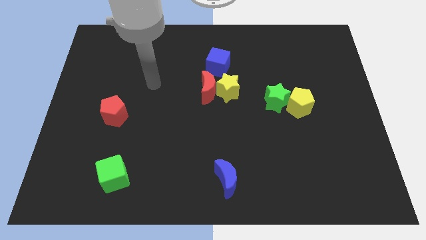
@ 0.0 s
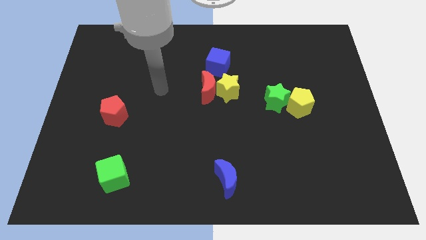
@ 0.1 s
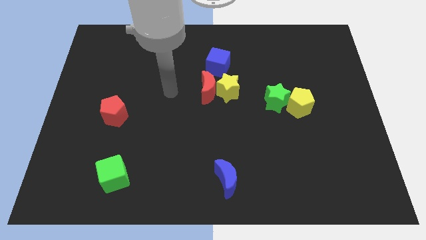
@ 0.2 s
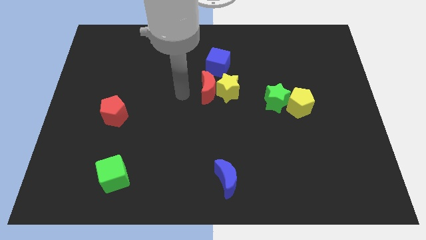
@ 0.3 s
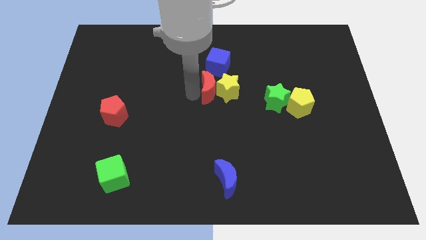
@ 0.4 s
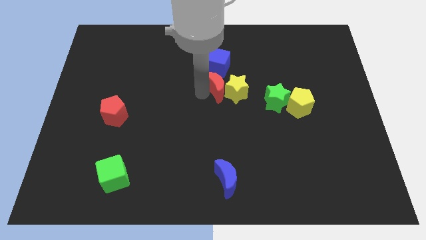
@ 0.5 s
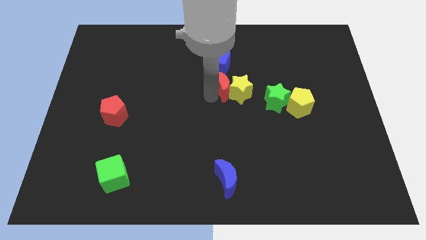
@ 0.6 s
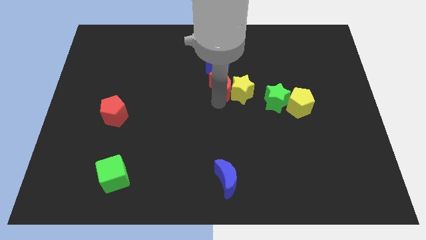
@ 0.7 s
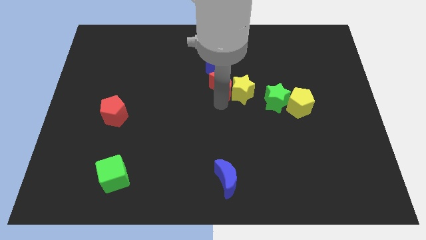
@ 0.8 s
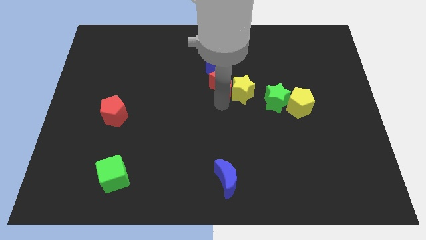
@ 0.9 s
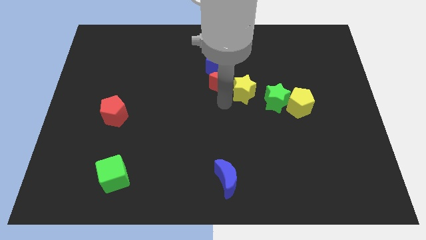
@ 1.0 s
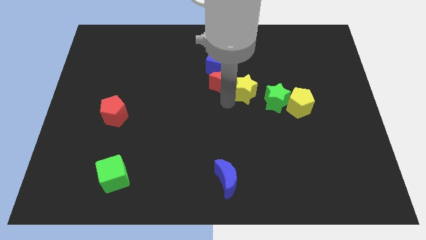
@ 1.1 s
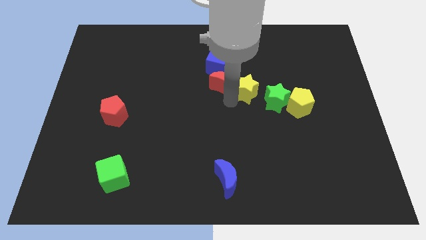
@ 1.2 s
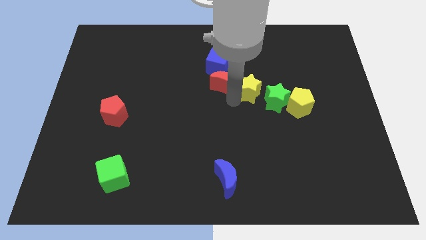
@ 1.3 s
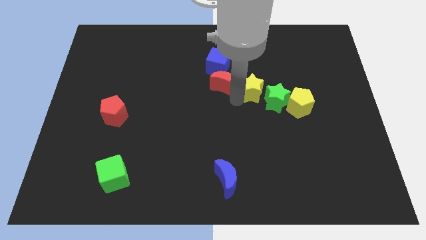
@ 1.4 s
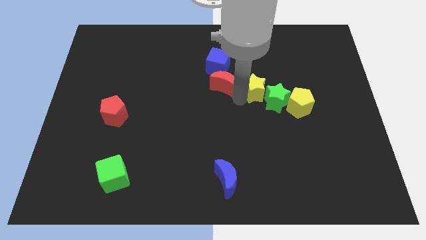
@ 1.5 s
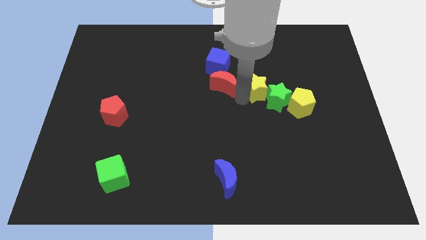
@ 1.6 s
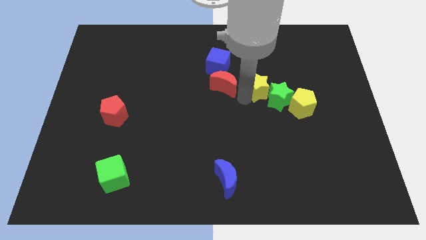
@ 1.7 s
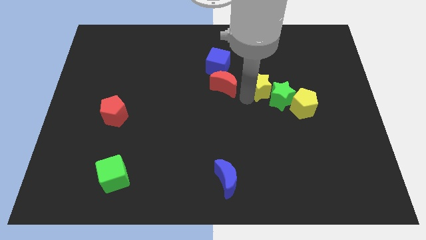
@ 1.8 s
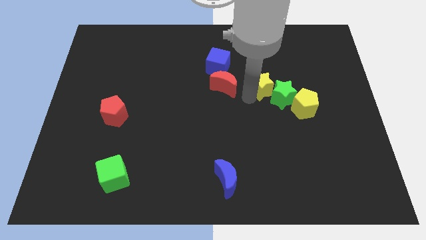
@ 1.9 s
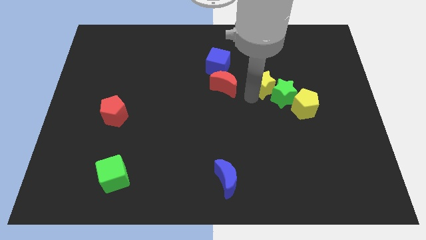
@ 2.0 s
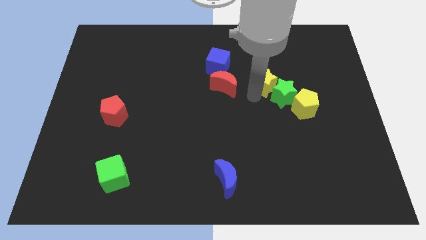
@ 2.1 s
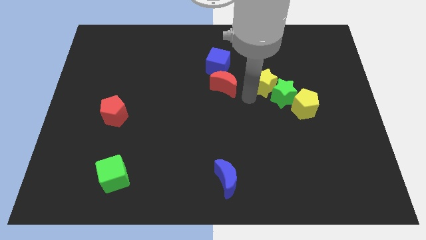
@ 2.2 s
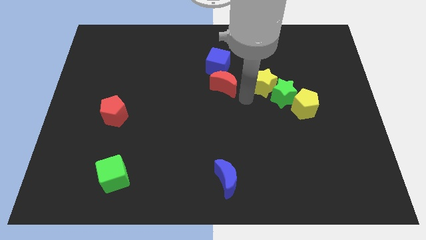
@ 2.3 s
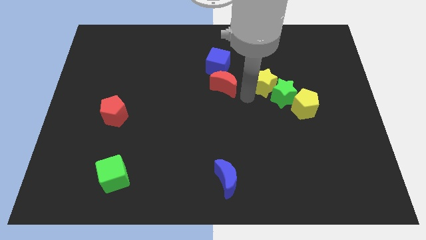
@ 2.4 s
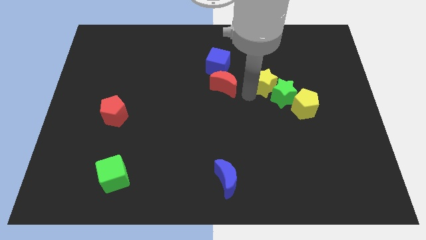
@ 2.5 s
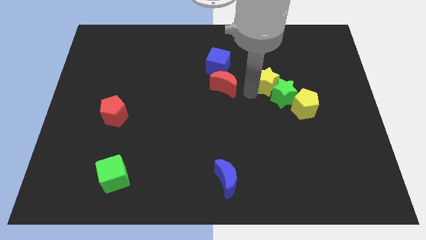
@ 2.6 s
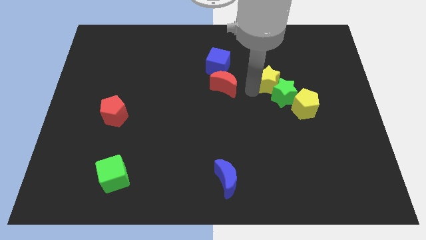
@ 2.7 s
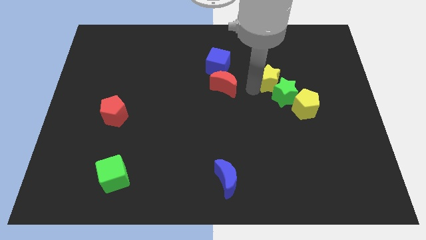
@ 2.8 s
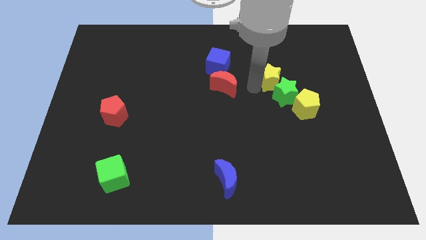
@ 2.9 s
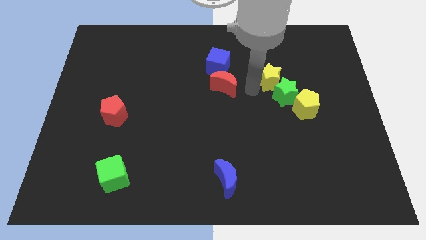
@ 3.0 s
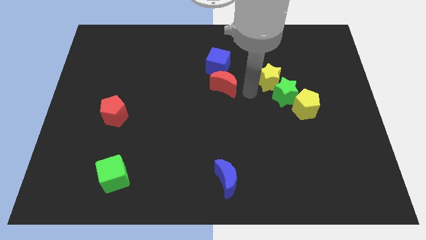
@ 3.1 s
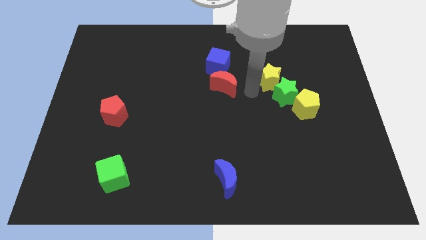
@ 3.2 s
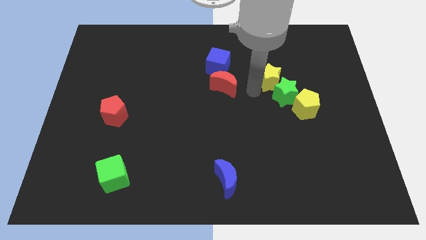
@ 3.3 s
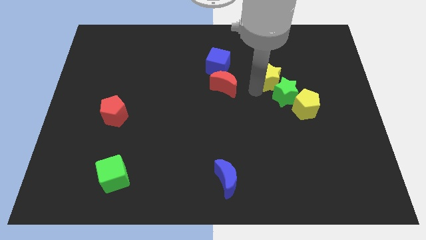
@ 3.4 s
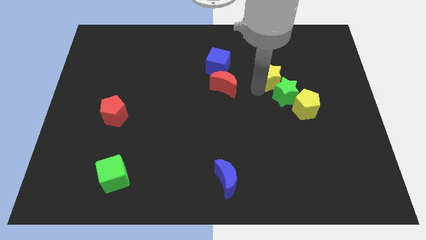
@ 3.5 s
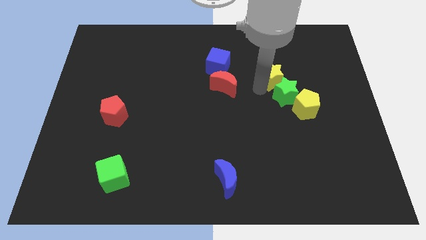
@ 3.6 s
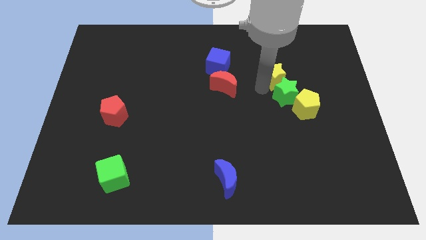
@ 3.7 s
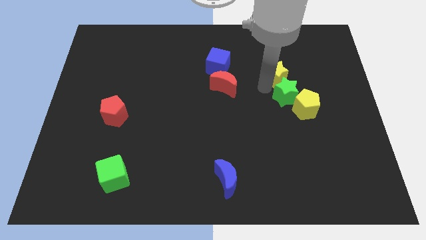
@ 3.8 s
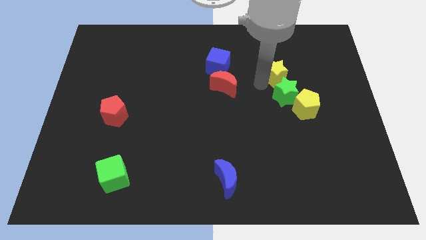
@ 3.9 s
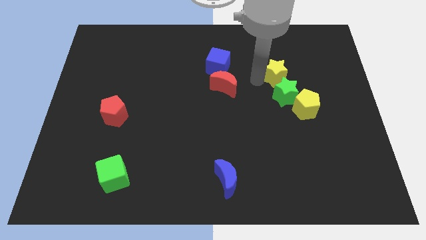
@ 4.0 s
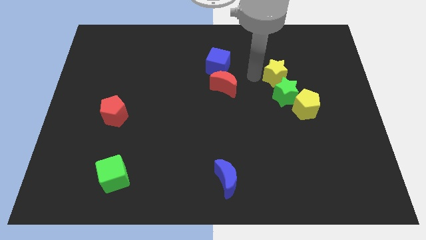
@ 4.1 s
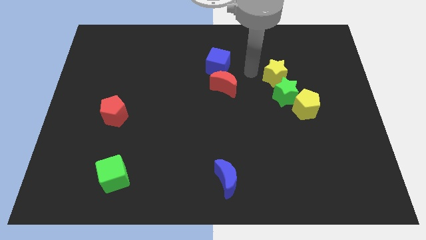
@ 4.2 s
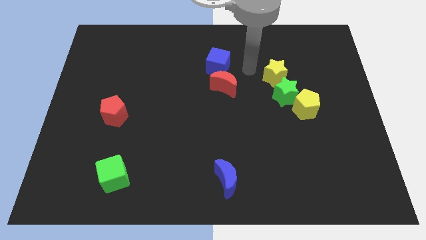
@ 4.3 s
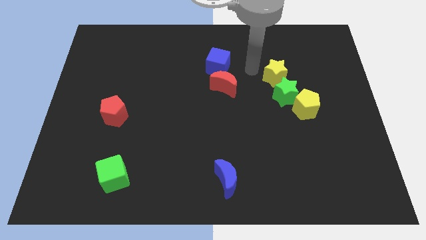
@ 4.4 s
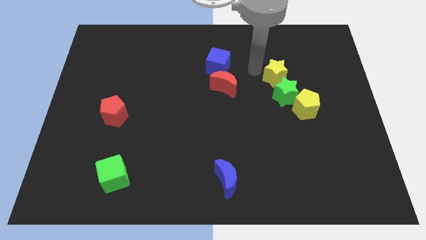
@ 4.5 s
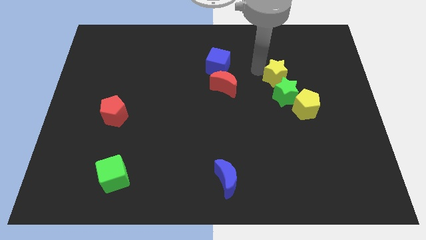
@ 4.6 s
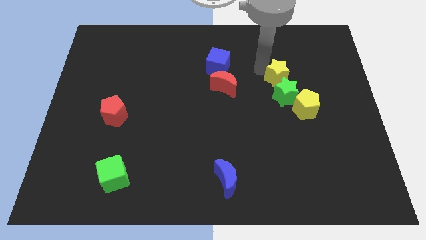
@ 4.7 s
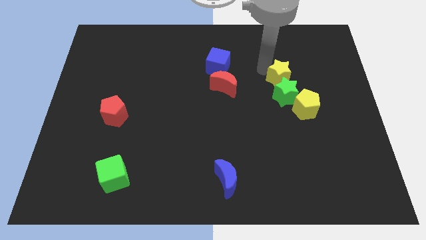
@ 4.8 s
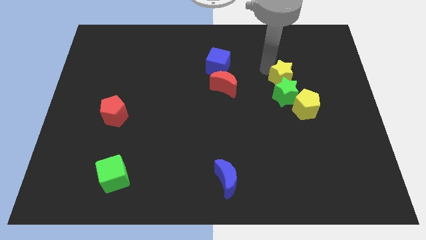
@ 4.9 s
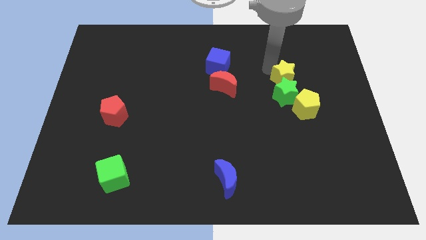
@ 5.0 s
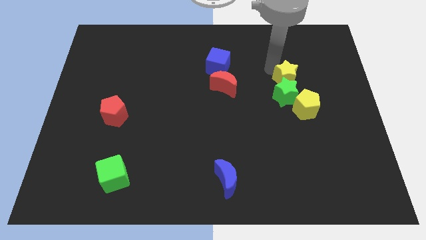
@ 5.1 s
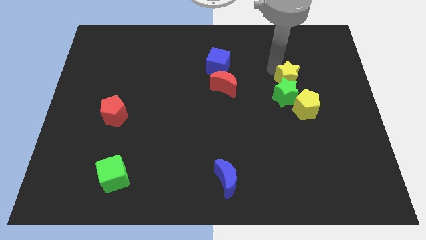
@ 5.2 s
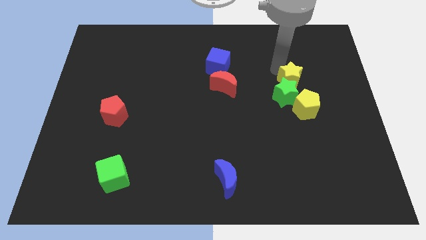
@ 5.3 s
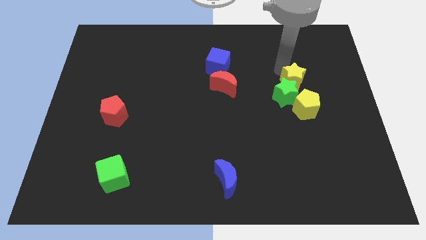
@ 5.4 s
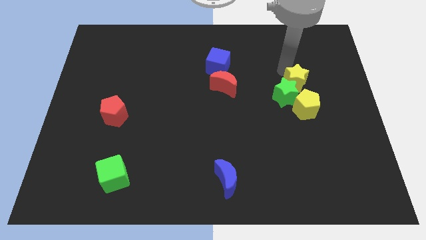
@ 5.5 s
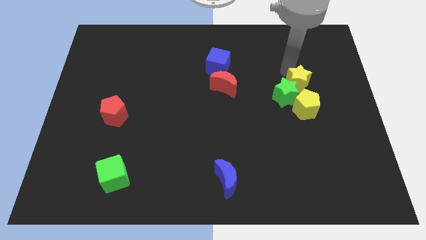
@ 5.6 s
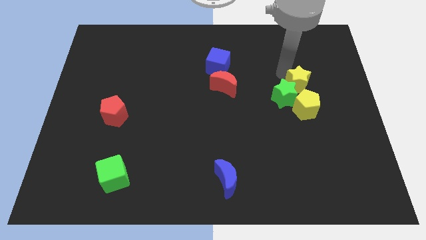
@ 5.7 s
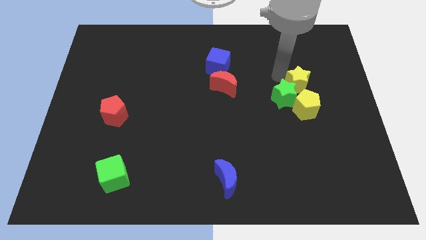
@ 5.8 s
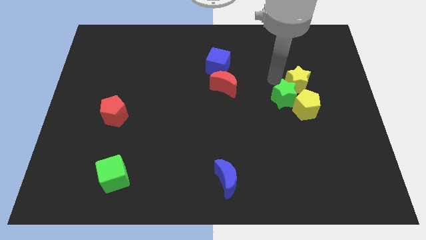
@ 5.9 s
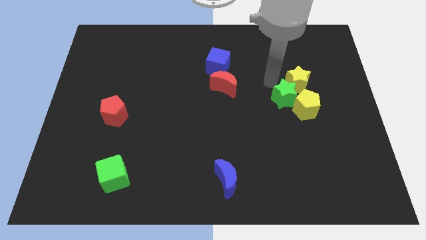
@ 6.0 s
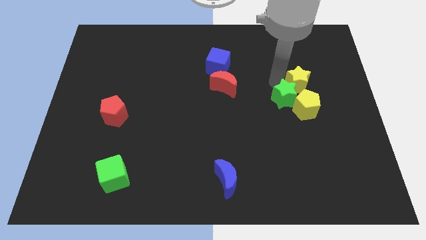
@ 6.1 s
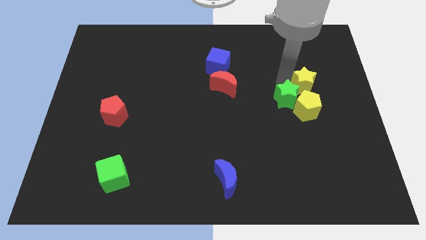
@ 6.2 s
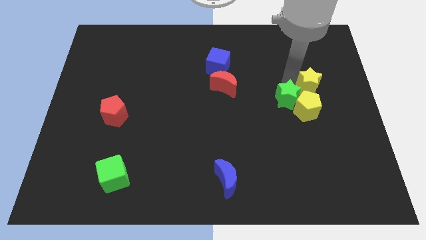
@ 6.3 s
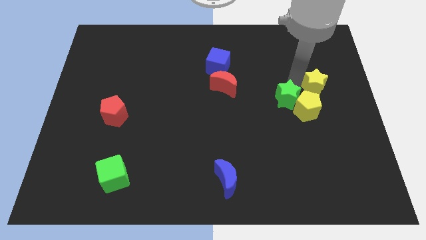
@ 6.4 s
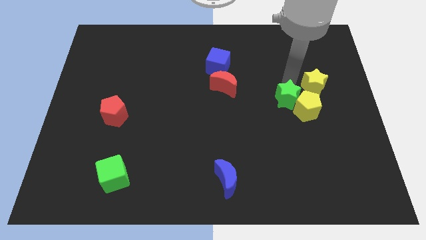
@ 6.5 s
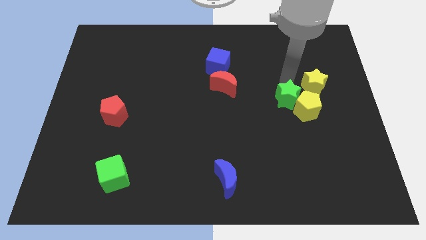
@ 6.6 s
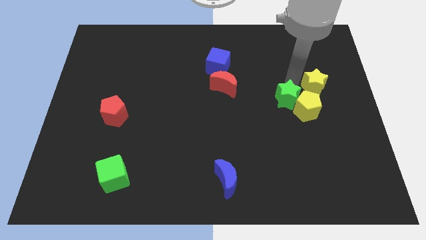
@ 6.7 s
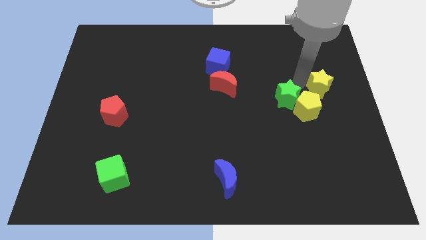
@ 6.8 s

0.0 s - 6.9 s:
slide the yellow star to the right side of the board

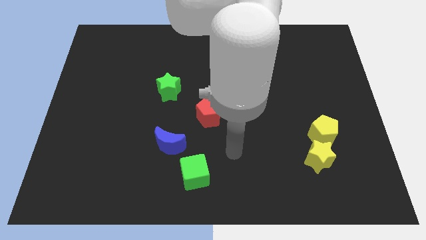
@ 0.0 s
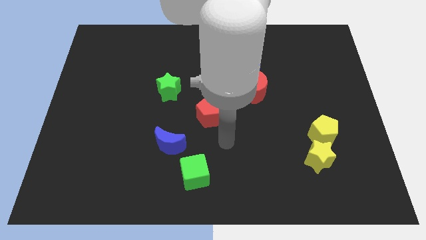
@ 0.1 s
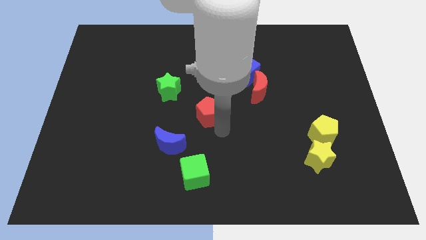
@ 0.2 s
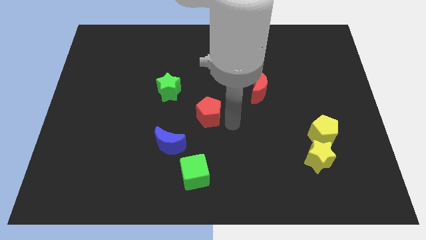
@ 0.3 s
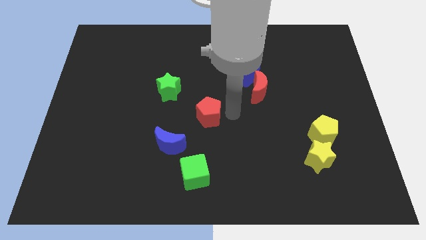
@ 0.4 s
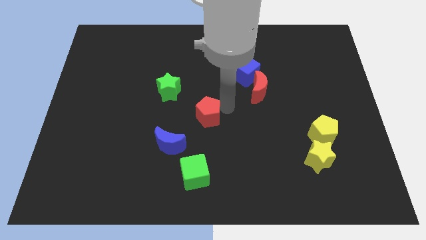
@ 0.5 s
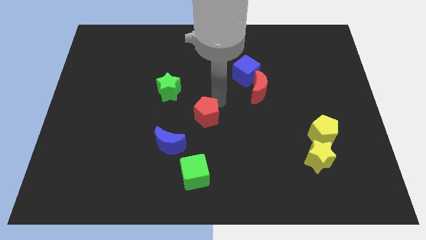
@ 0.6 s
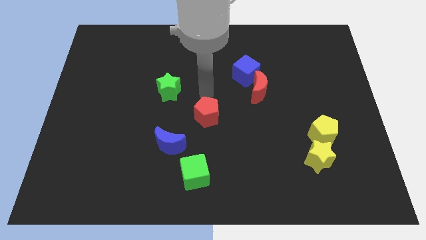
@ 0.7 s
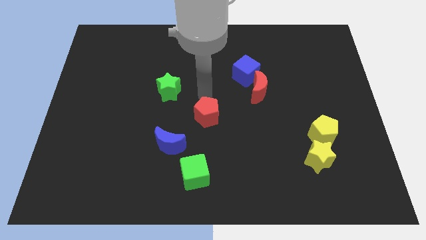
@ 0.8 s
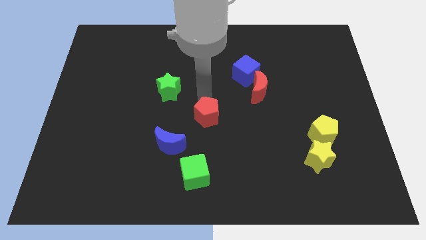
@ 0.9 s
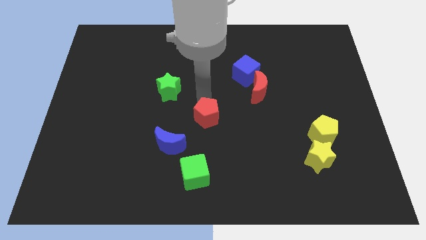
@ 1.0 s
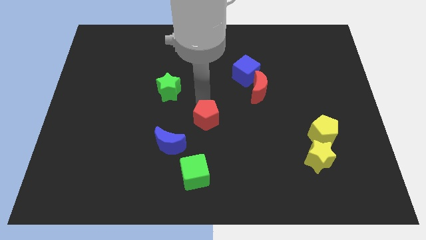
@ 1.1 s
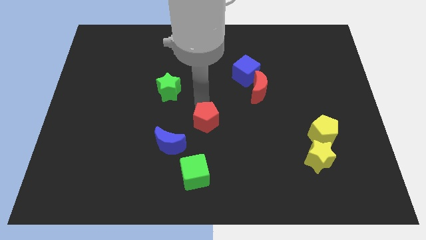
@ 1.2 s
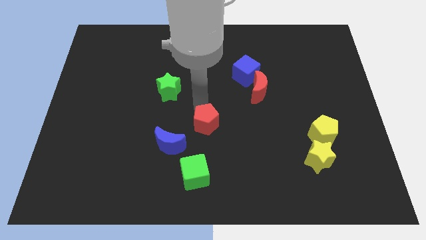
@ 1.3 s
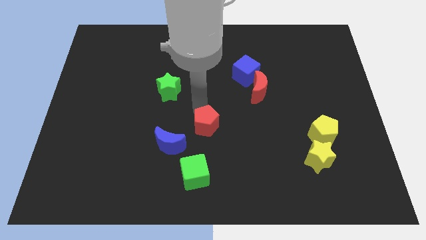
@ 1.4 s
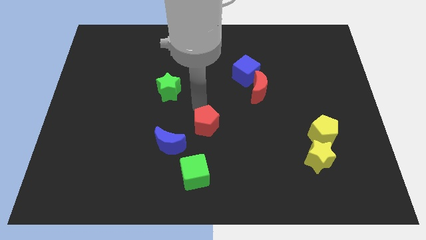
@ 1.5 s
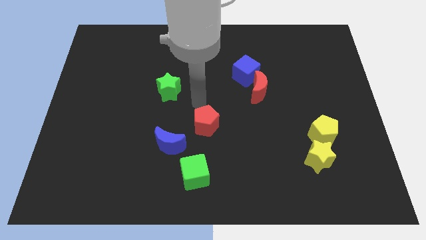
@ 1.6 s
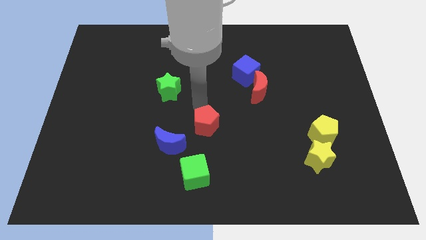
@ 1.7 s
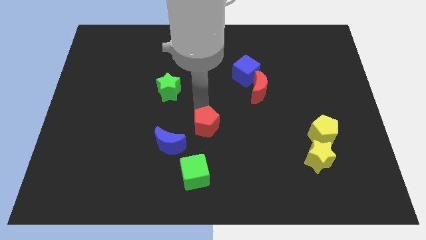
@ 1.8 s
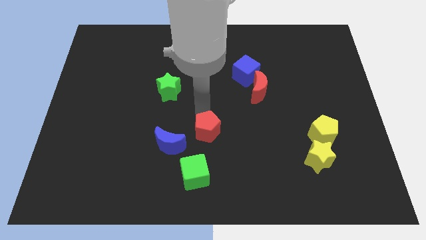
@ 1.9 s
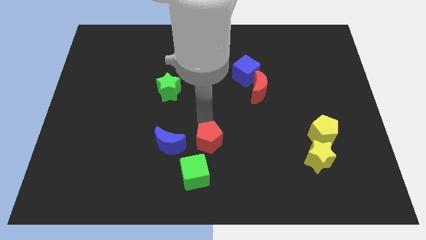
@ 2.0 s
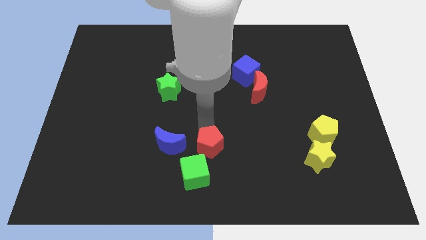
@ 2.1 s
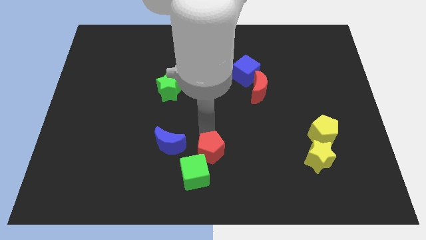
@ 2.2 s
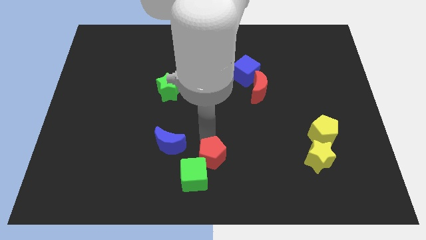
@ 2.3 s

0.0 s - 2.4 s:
put the red pentagon to the bottom side
